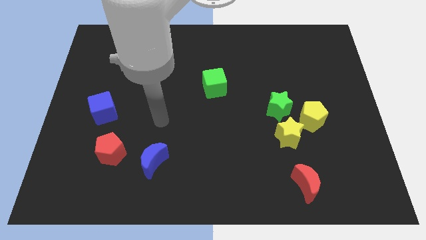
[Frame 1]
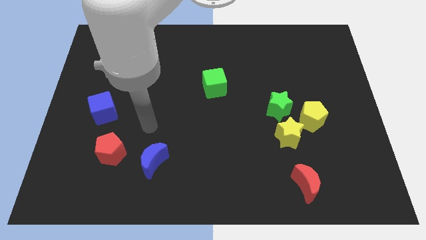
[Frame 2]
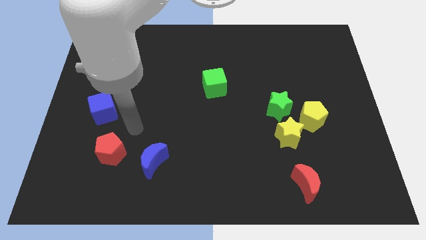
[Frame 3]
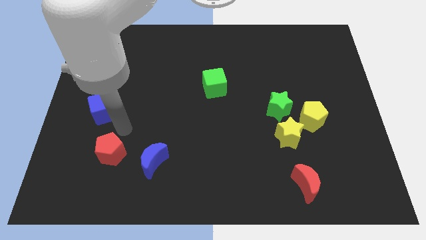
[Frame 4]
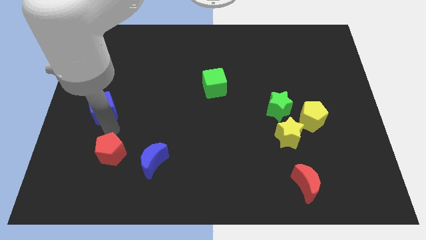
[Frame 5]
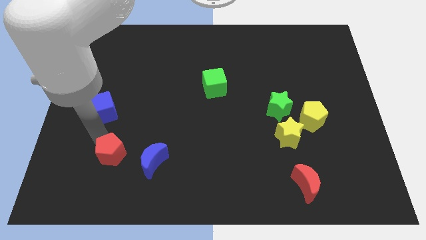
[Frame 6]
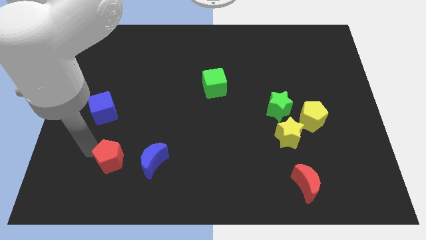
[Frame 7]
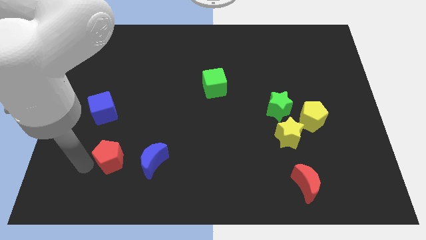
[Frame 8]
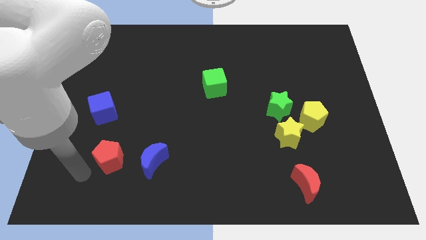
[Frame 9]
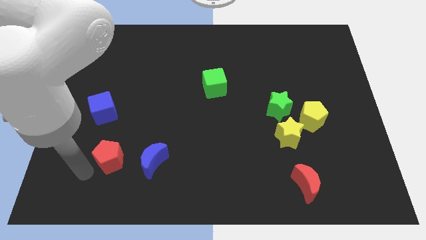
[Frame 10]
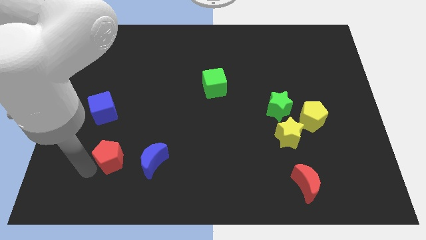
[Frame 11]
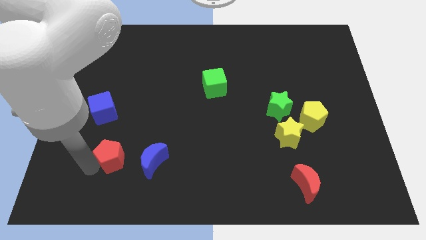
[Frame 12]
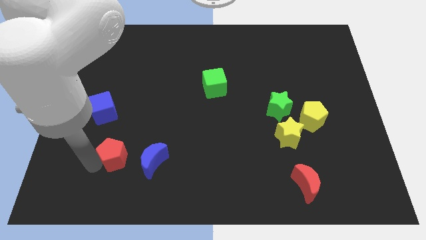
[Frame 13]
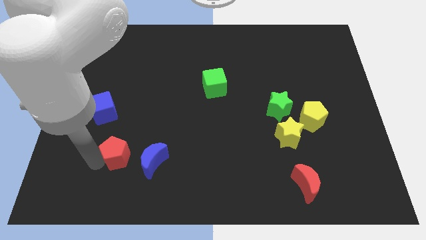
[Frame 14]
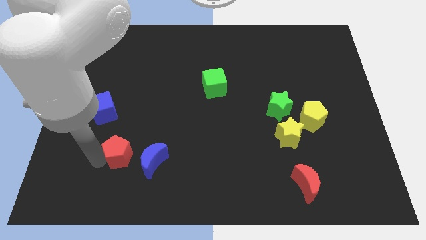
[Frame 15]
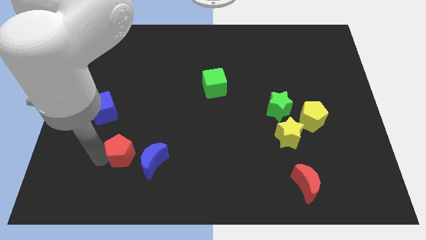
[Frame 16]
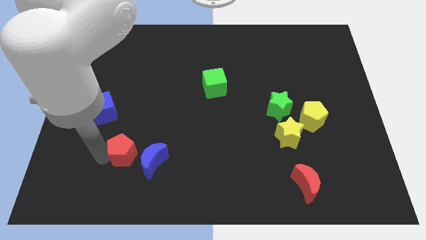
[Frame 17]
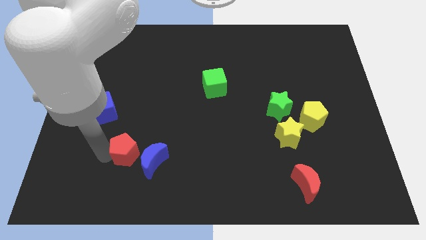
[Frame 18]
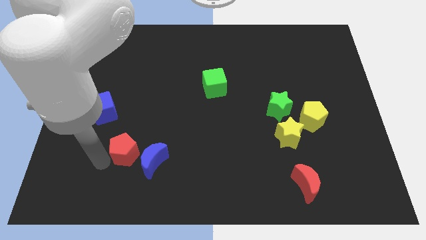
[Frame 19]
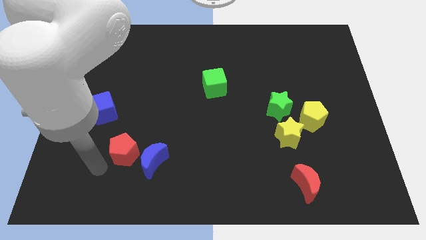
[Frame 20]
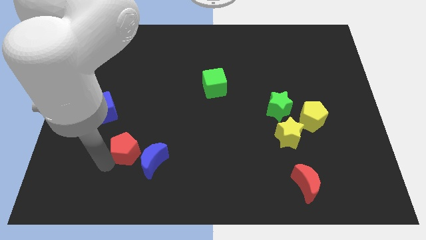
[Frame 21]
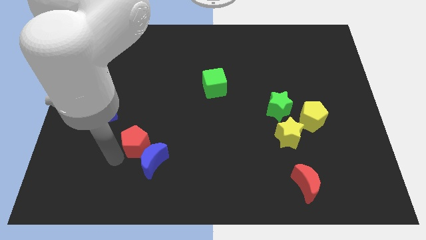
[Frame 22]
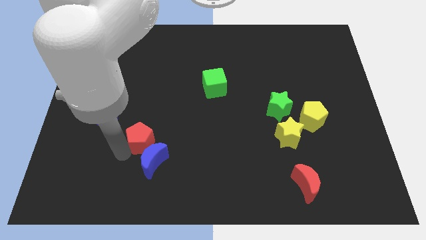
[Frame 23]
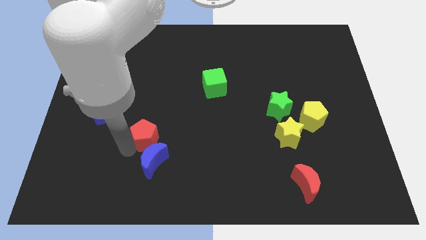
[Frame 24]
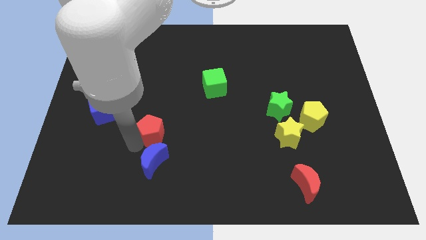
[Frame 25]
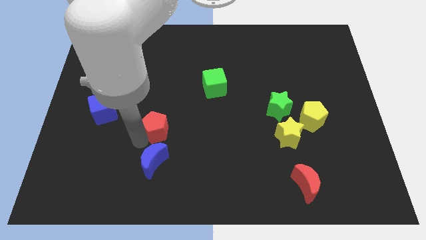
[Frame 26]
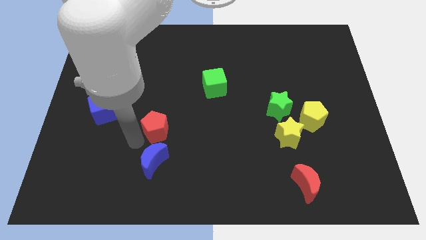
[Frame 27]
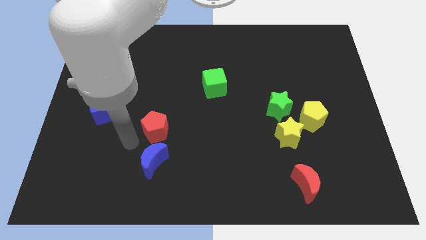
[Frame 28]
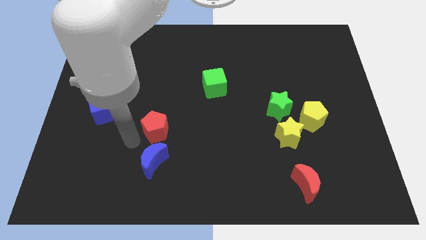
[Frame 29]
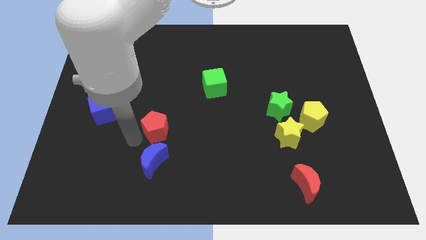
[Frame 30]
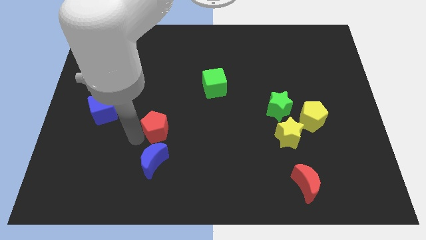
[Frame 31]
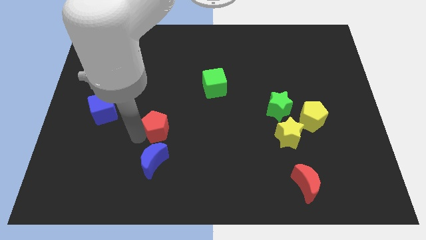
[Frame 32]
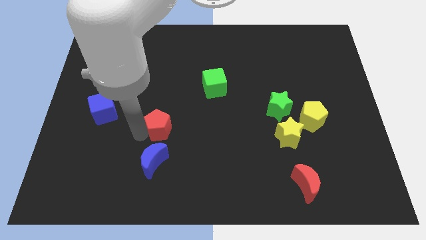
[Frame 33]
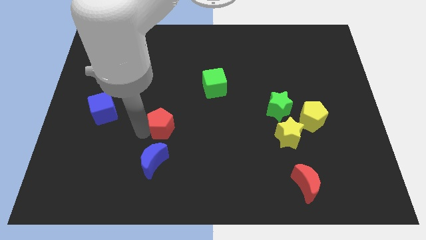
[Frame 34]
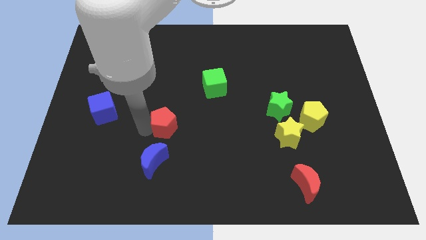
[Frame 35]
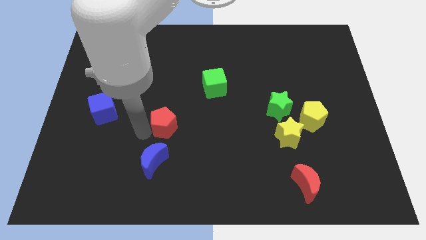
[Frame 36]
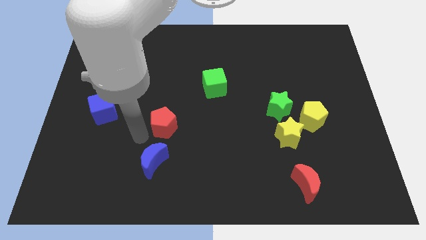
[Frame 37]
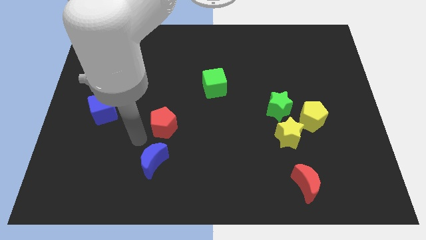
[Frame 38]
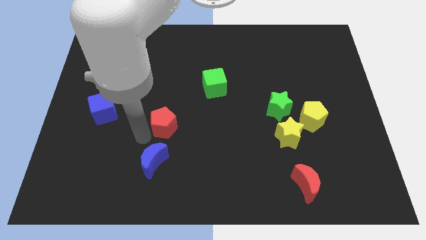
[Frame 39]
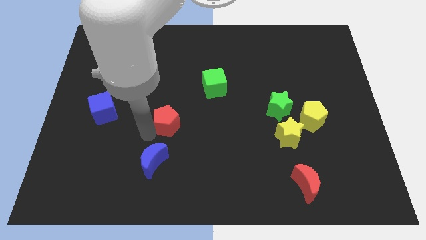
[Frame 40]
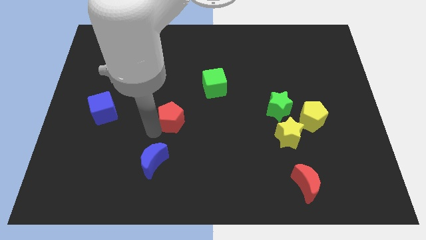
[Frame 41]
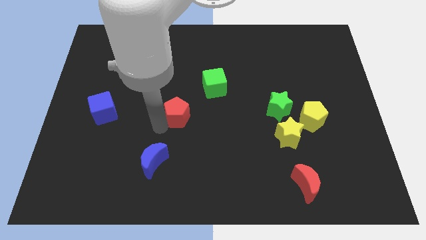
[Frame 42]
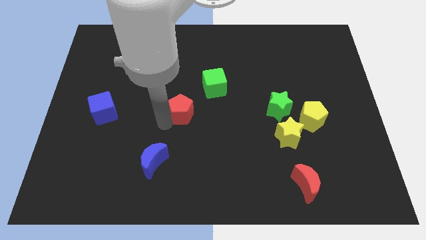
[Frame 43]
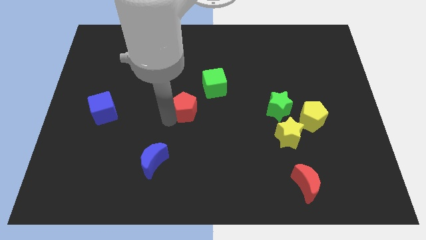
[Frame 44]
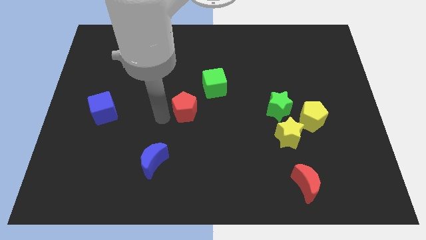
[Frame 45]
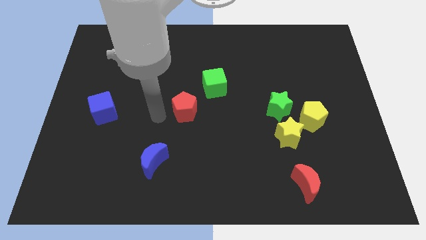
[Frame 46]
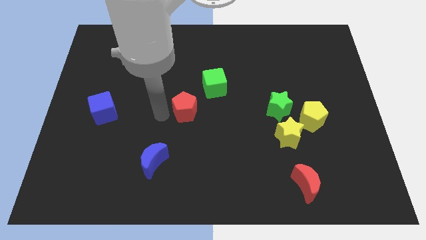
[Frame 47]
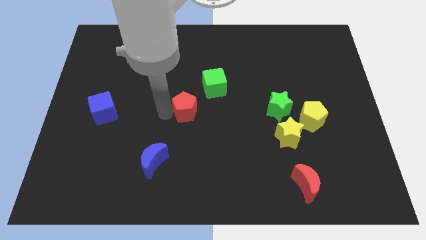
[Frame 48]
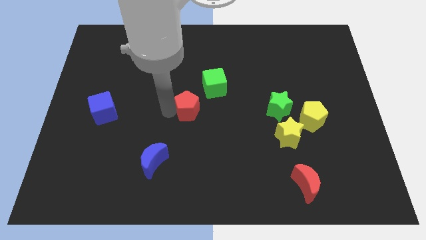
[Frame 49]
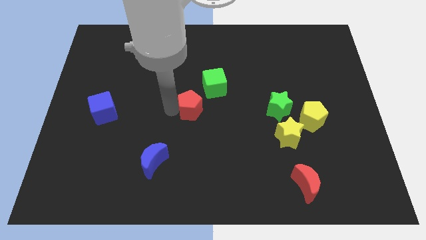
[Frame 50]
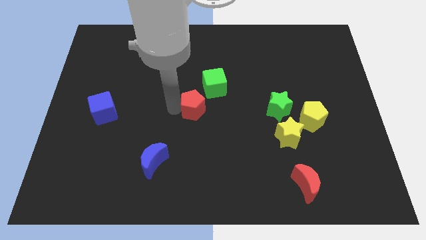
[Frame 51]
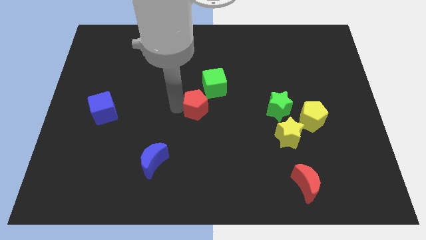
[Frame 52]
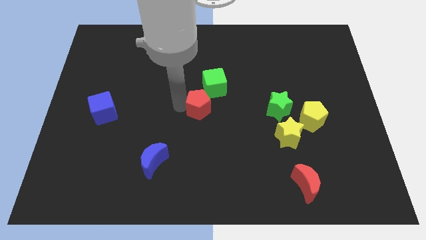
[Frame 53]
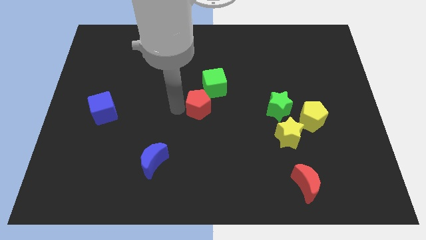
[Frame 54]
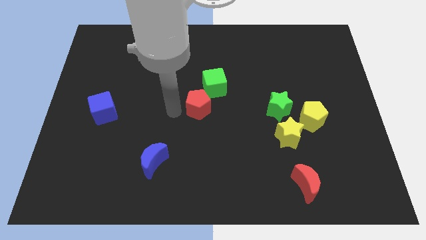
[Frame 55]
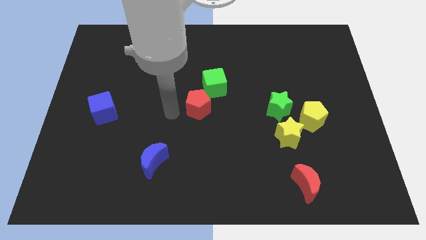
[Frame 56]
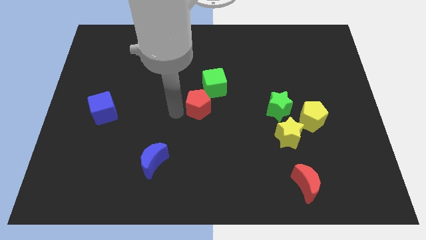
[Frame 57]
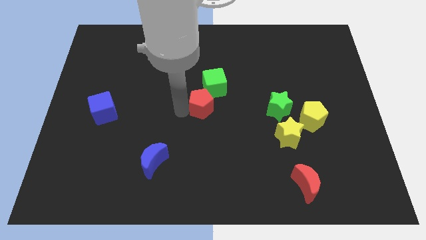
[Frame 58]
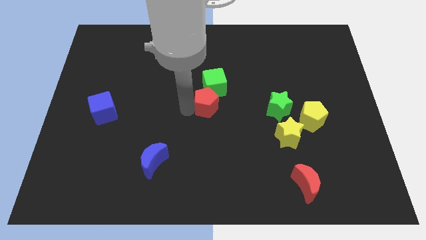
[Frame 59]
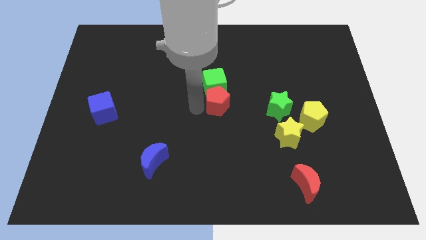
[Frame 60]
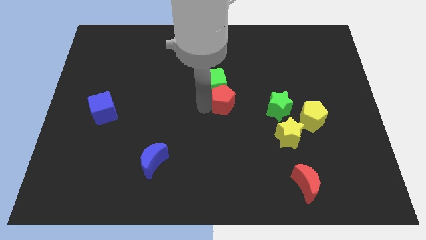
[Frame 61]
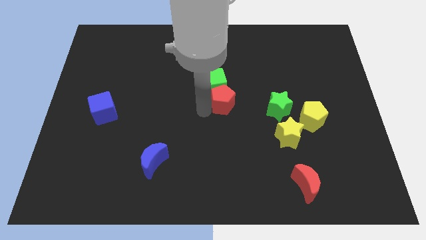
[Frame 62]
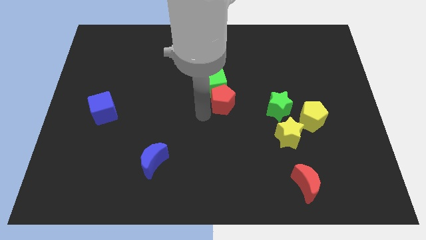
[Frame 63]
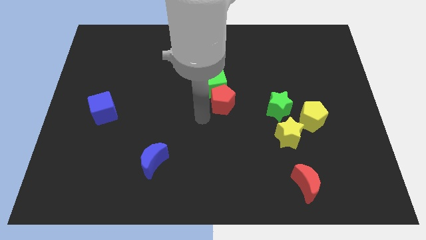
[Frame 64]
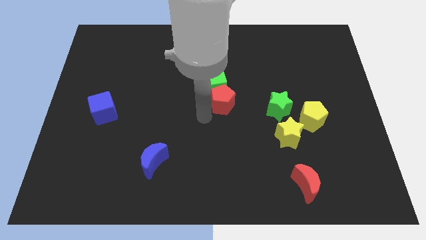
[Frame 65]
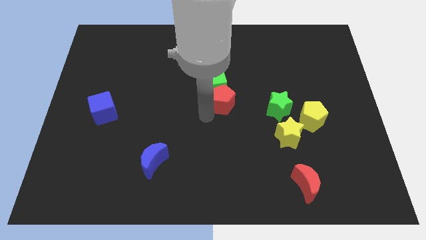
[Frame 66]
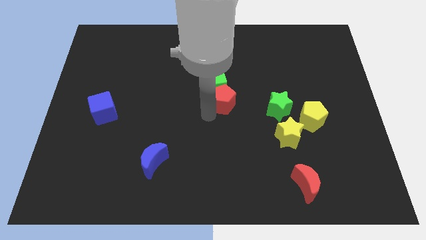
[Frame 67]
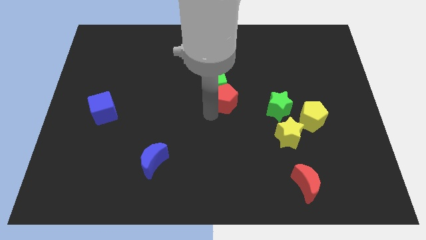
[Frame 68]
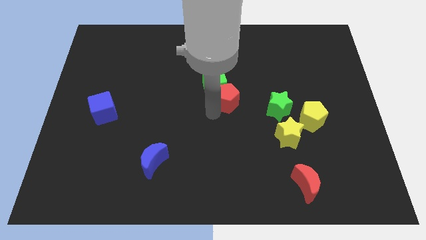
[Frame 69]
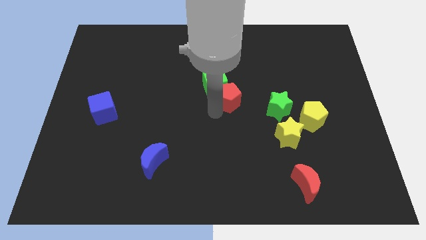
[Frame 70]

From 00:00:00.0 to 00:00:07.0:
push the red pentagon right of the green cube
